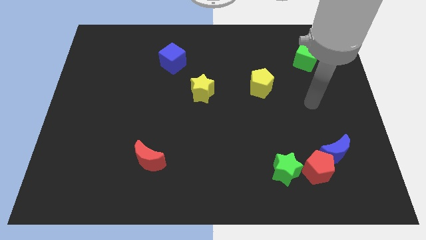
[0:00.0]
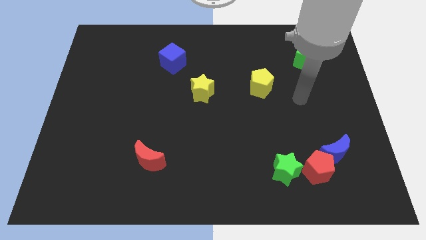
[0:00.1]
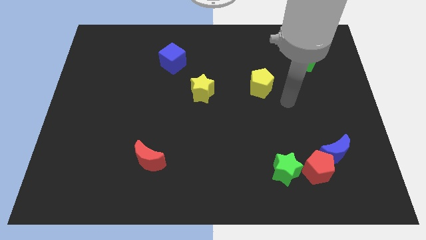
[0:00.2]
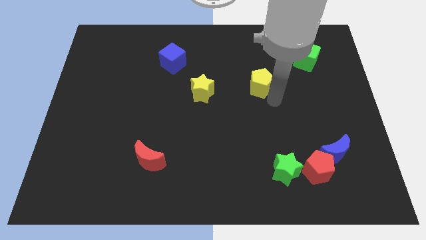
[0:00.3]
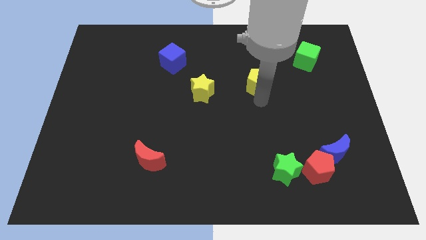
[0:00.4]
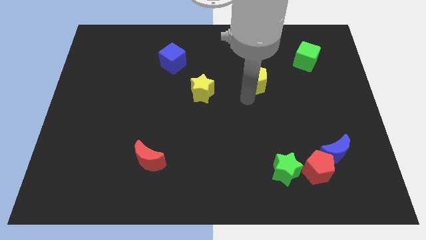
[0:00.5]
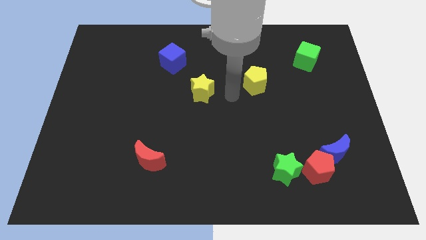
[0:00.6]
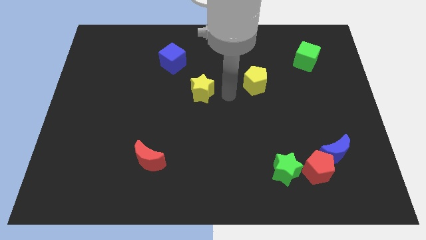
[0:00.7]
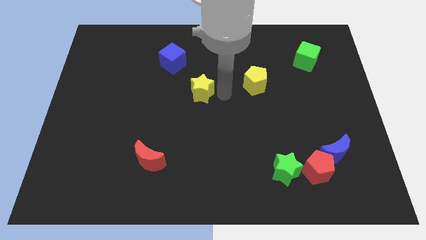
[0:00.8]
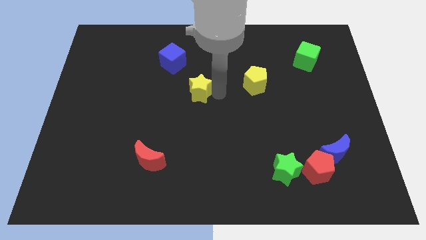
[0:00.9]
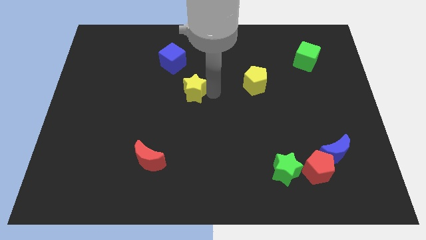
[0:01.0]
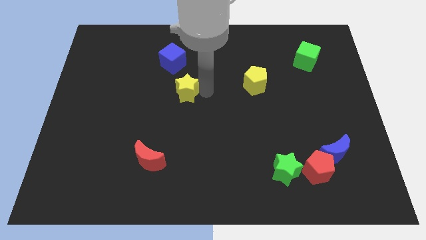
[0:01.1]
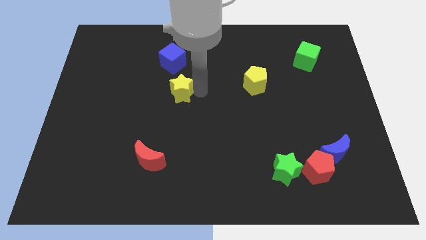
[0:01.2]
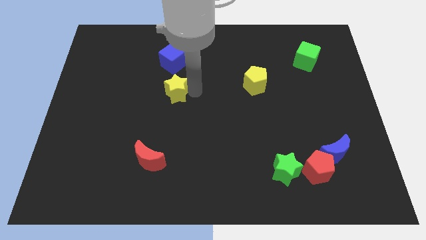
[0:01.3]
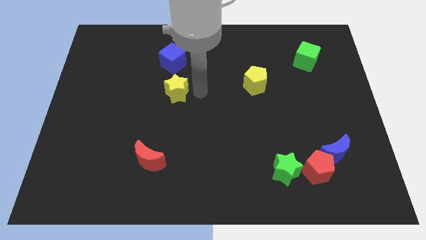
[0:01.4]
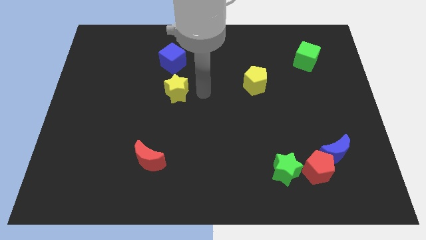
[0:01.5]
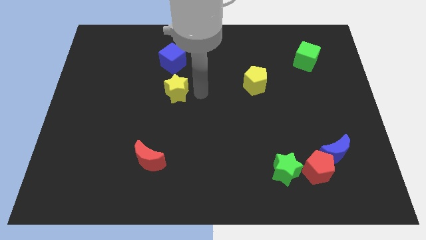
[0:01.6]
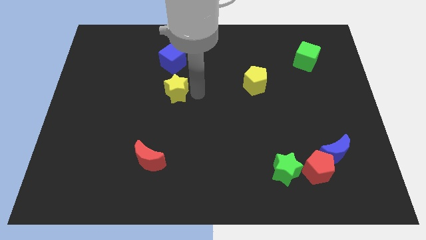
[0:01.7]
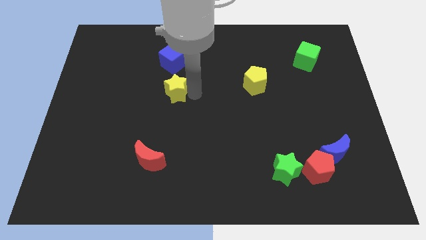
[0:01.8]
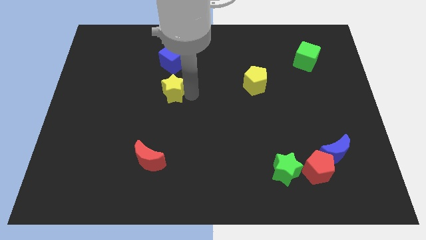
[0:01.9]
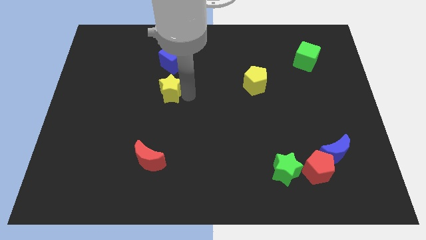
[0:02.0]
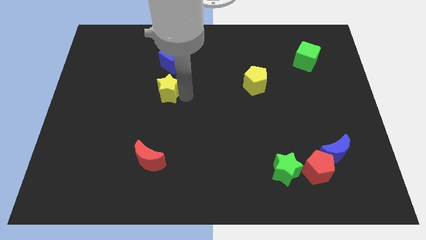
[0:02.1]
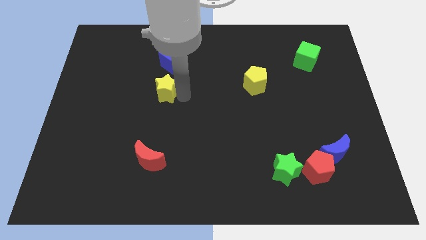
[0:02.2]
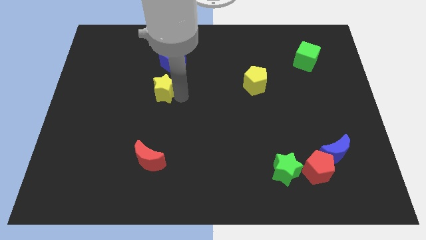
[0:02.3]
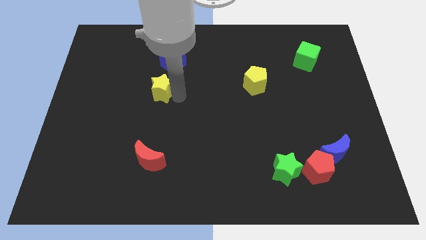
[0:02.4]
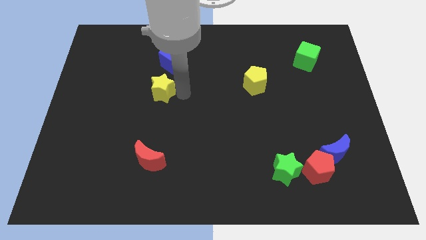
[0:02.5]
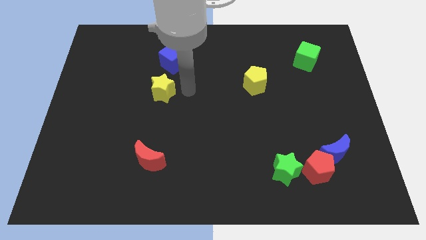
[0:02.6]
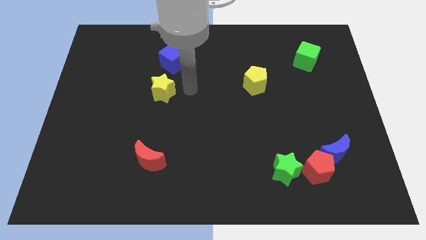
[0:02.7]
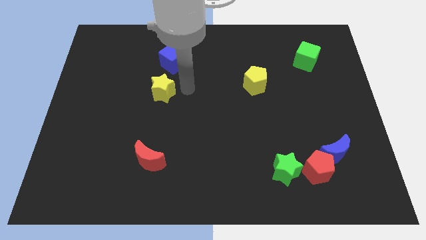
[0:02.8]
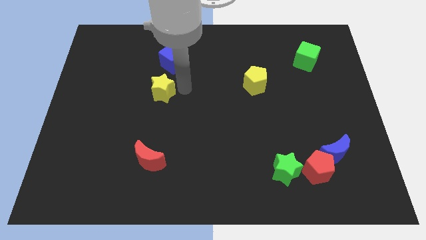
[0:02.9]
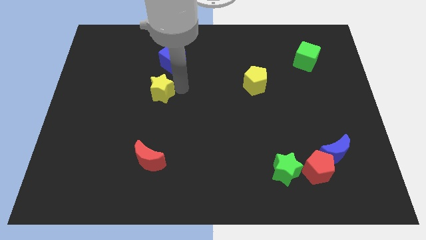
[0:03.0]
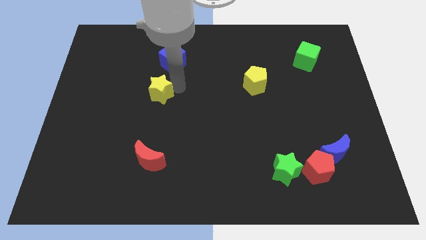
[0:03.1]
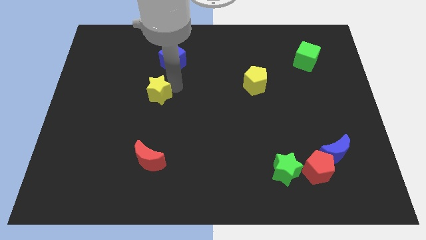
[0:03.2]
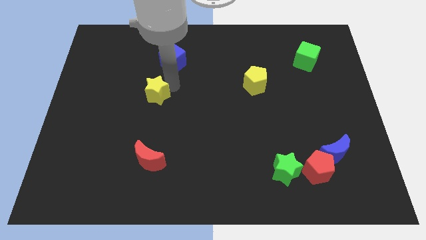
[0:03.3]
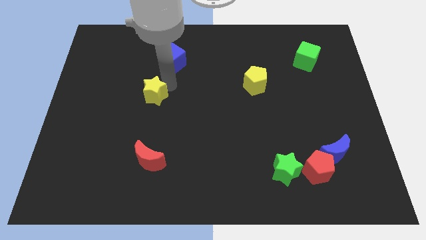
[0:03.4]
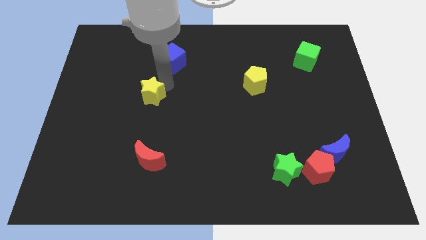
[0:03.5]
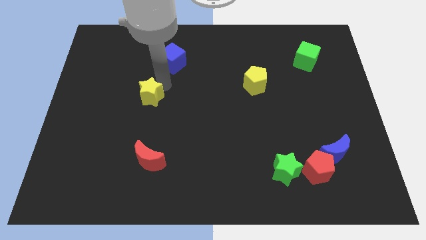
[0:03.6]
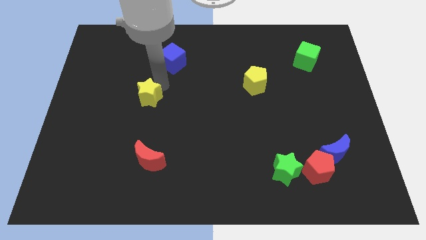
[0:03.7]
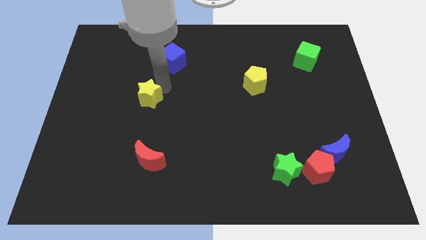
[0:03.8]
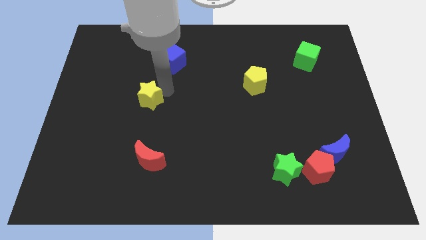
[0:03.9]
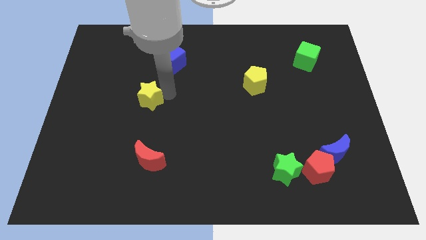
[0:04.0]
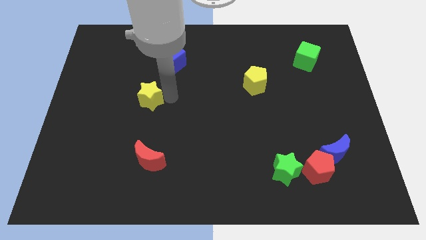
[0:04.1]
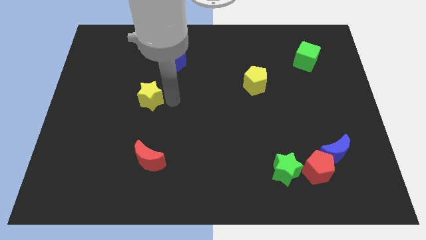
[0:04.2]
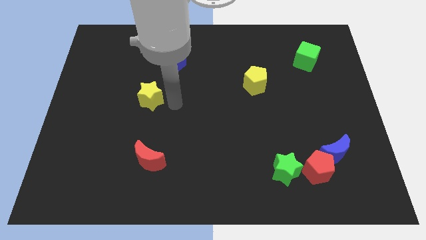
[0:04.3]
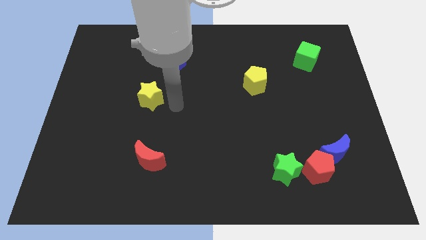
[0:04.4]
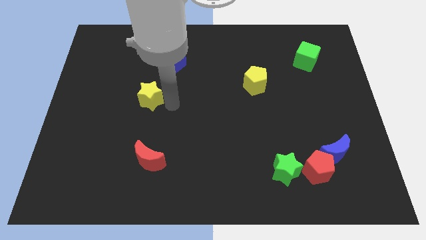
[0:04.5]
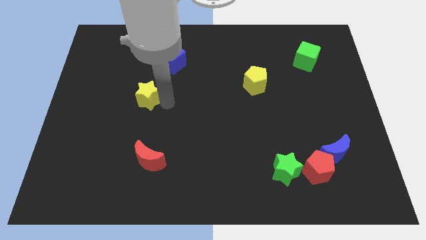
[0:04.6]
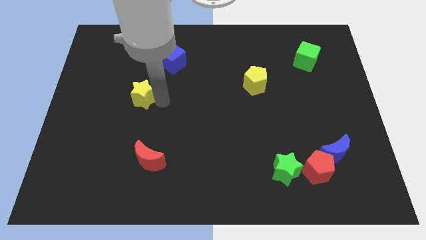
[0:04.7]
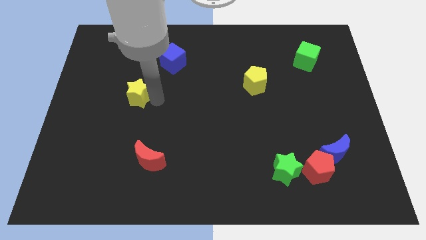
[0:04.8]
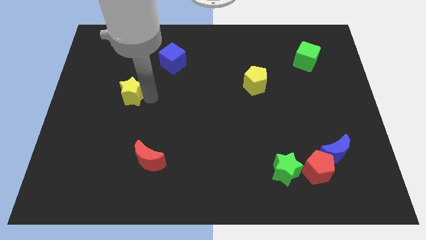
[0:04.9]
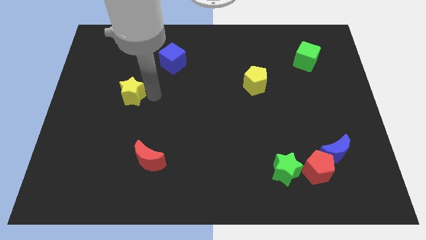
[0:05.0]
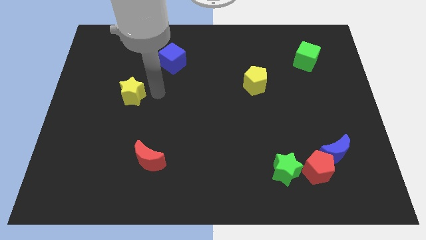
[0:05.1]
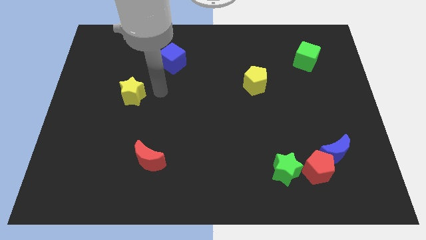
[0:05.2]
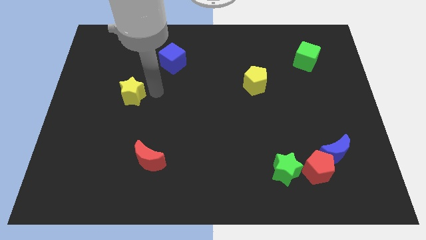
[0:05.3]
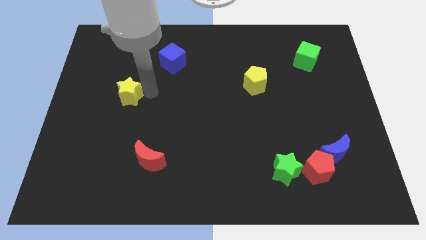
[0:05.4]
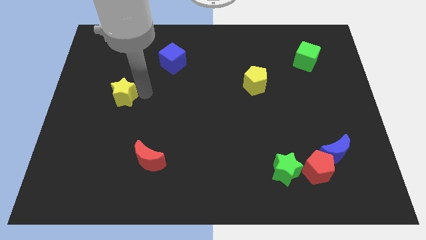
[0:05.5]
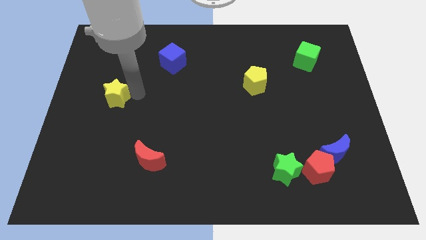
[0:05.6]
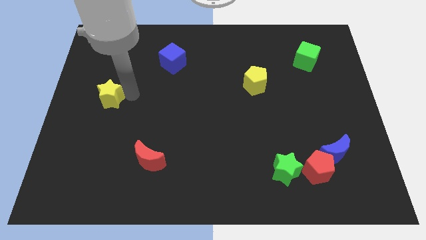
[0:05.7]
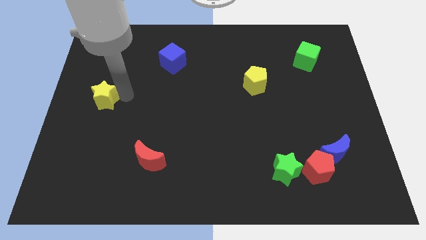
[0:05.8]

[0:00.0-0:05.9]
push the yellow star to the left side of the board

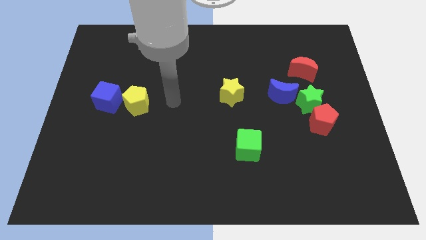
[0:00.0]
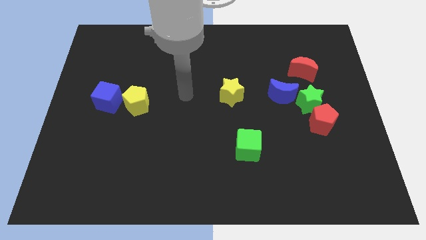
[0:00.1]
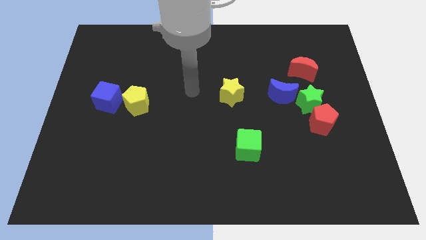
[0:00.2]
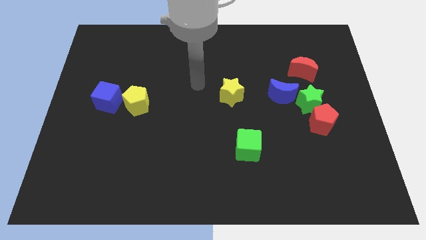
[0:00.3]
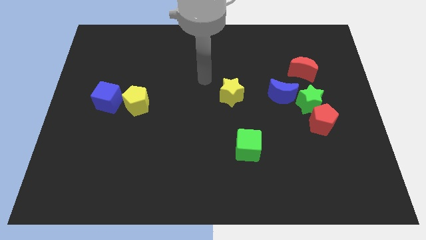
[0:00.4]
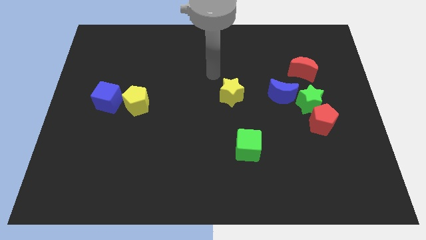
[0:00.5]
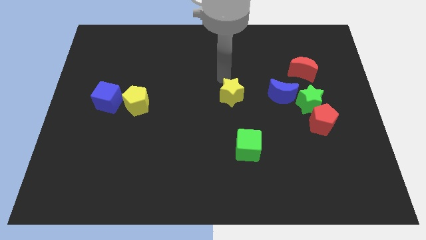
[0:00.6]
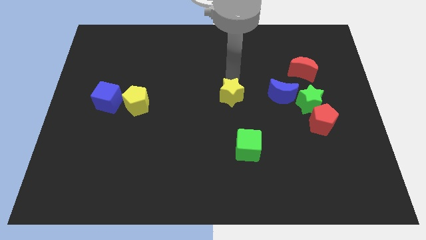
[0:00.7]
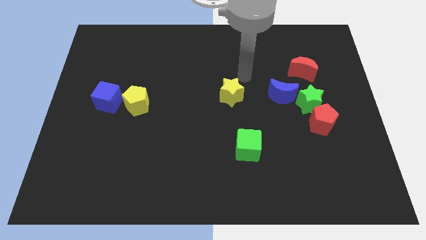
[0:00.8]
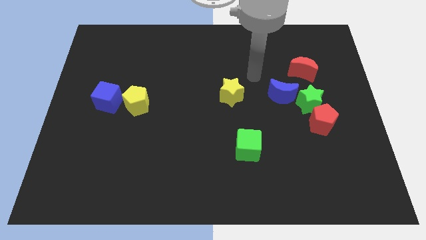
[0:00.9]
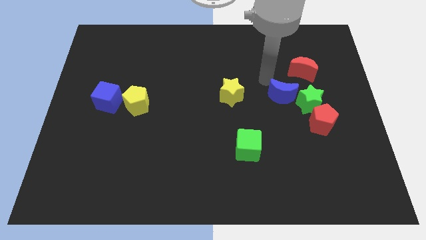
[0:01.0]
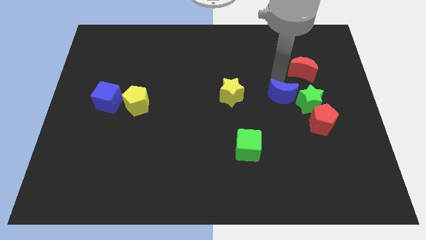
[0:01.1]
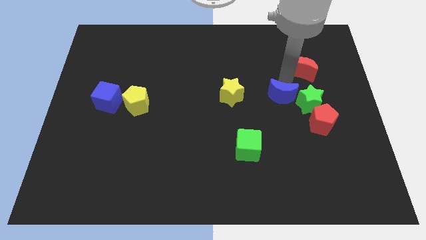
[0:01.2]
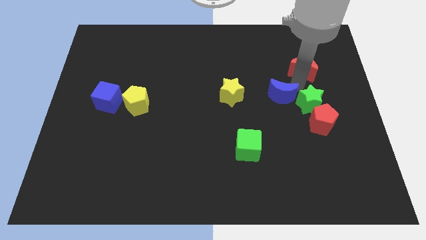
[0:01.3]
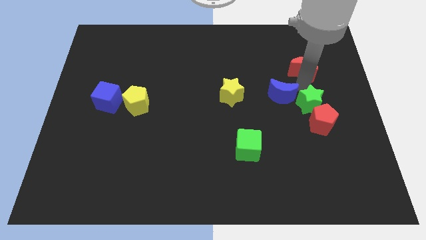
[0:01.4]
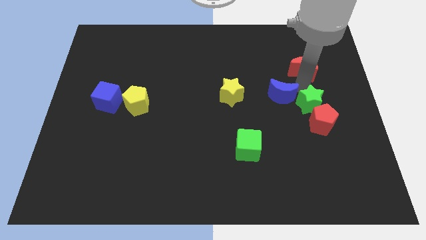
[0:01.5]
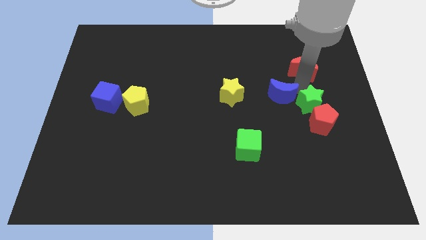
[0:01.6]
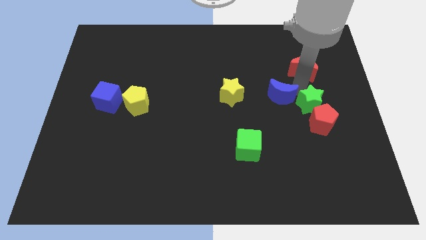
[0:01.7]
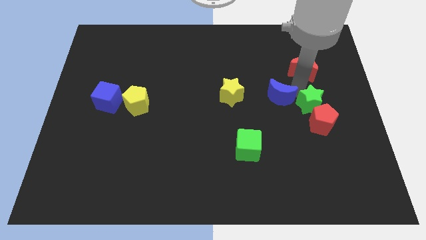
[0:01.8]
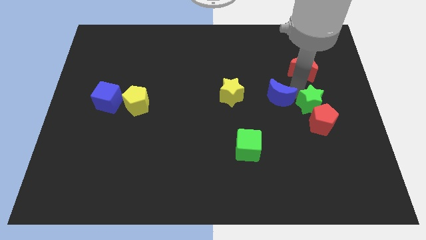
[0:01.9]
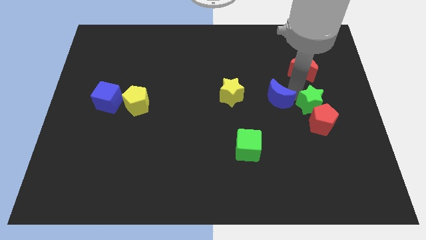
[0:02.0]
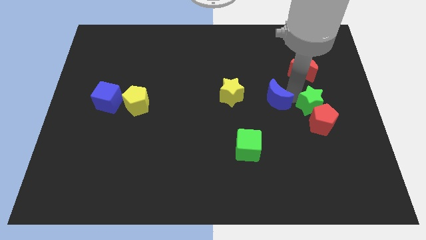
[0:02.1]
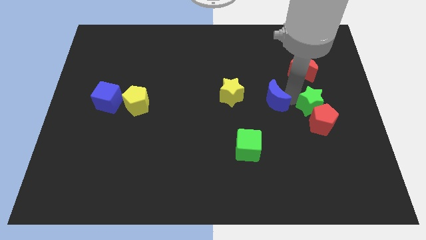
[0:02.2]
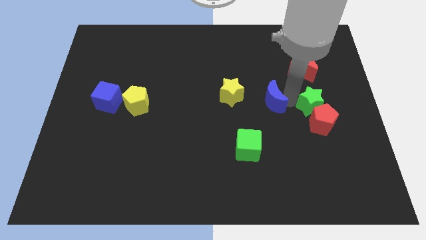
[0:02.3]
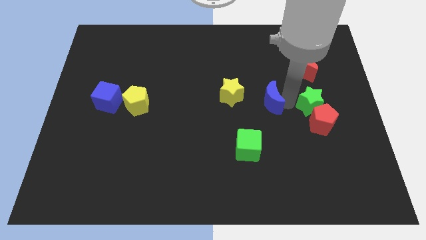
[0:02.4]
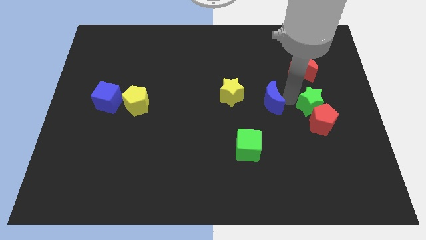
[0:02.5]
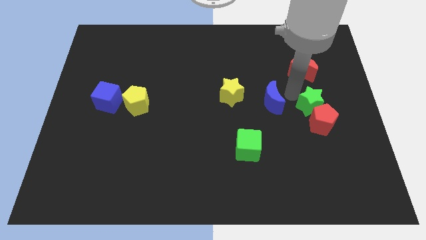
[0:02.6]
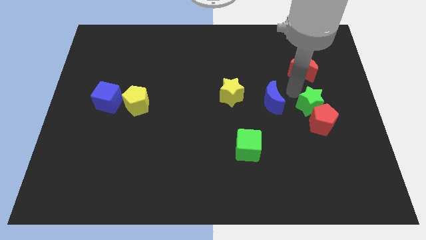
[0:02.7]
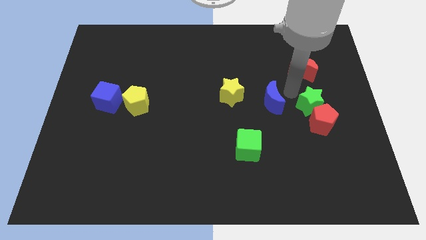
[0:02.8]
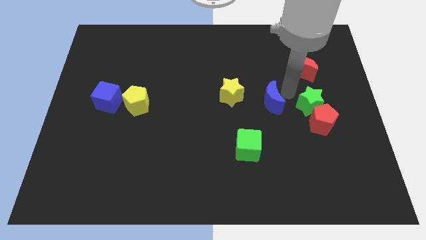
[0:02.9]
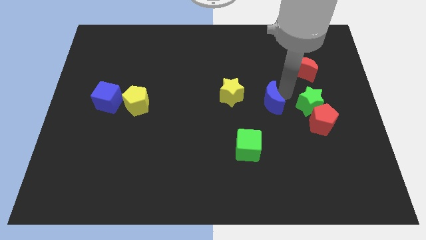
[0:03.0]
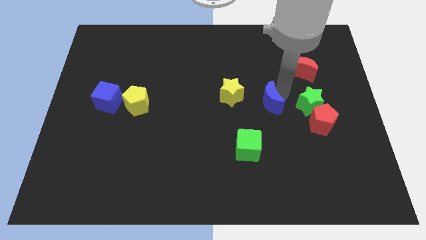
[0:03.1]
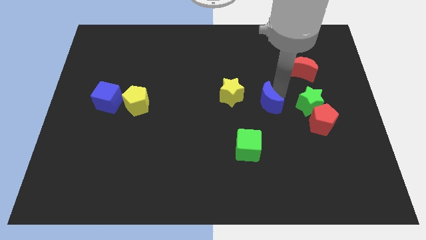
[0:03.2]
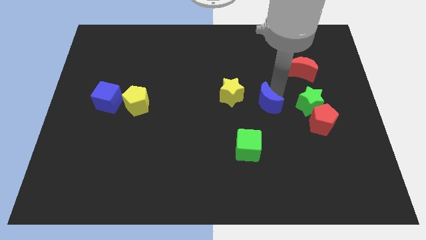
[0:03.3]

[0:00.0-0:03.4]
slide the blue moon to the middle
